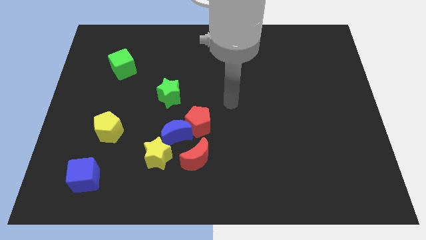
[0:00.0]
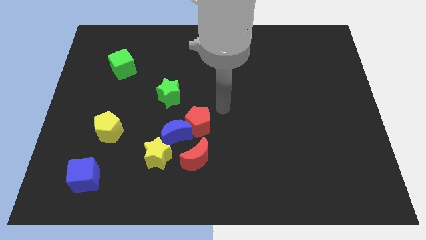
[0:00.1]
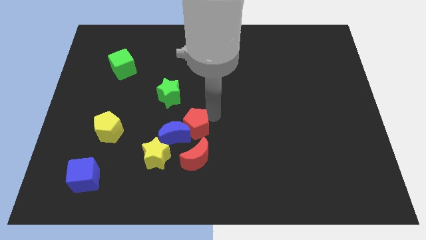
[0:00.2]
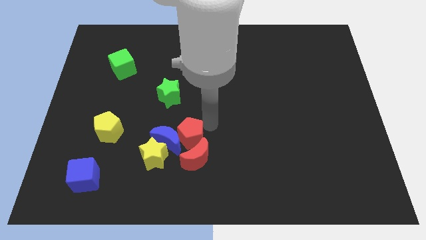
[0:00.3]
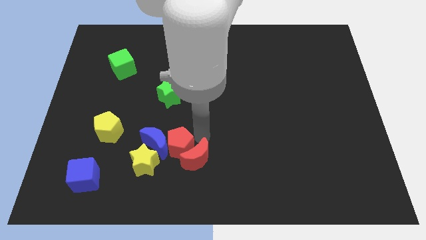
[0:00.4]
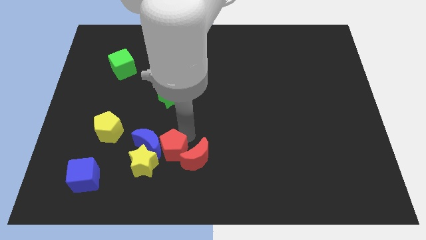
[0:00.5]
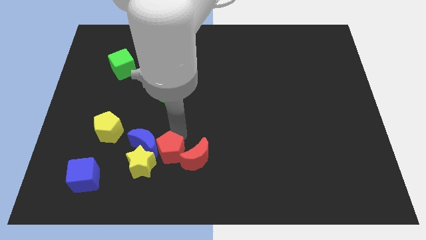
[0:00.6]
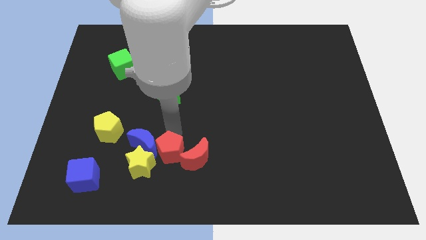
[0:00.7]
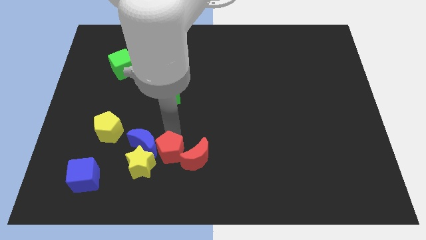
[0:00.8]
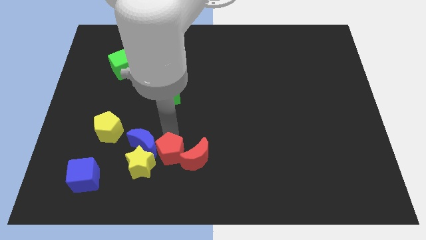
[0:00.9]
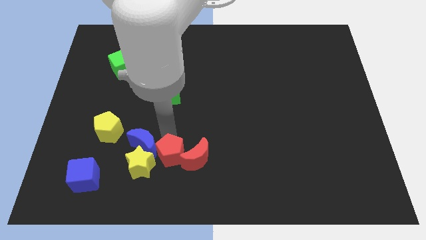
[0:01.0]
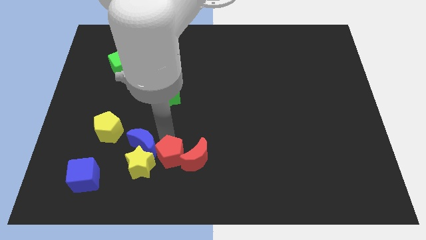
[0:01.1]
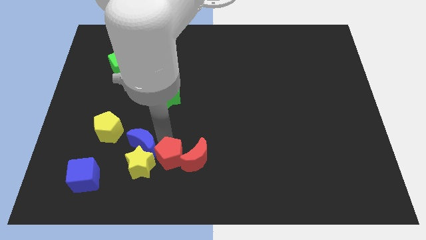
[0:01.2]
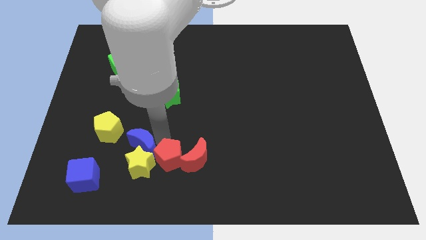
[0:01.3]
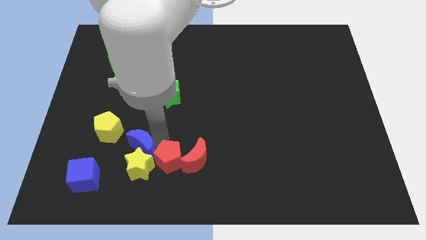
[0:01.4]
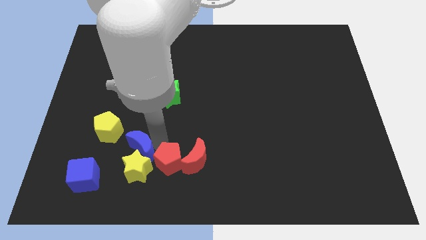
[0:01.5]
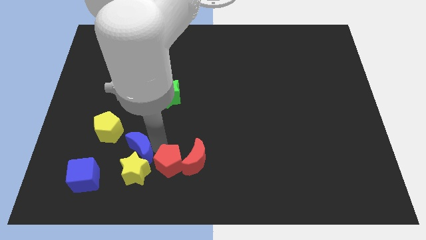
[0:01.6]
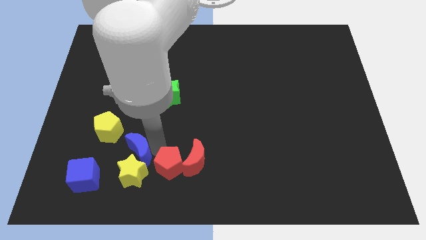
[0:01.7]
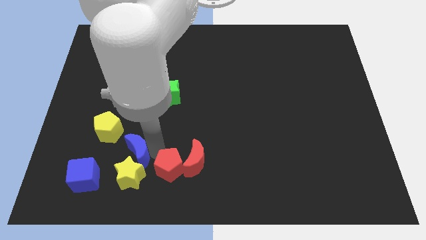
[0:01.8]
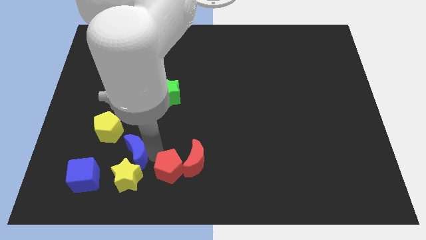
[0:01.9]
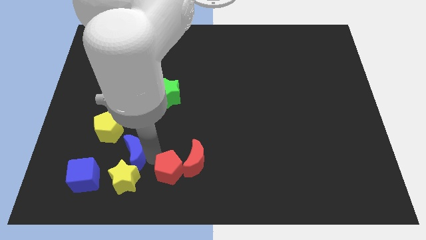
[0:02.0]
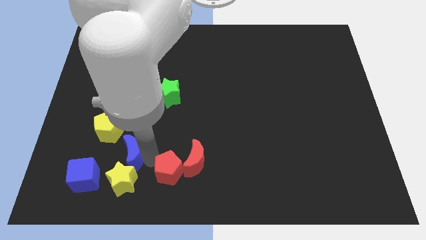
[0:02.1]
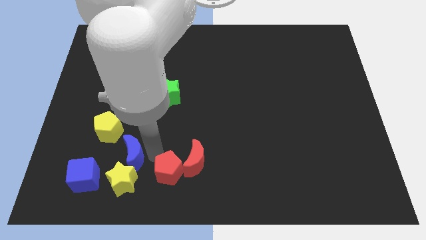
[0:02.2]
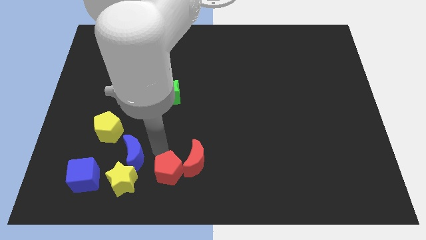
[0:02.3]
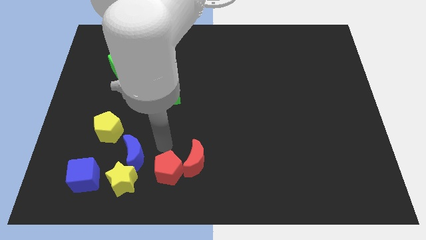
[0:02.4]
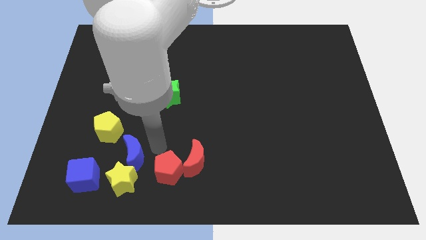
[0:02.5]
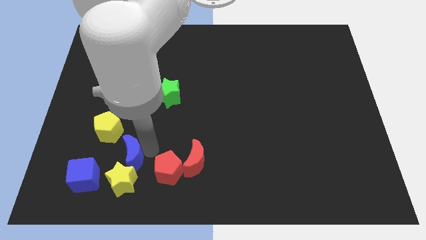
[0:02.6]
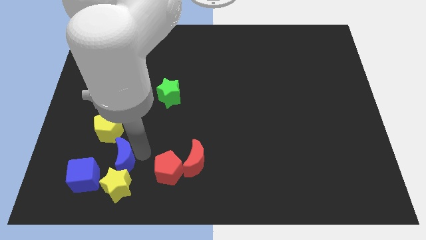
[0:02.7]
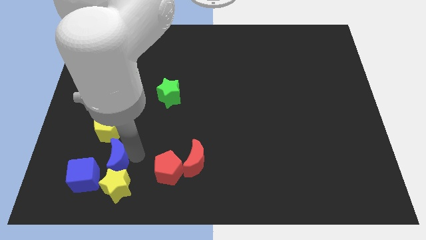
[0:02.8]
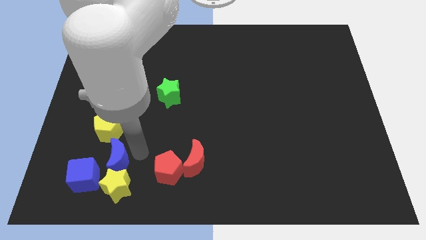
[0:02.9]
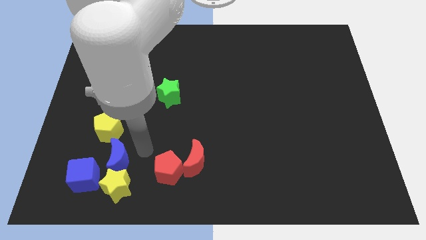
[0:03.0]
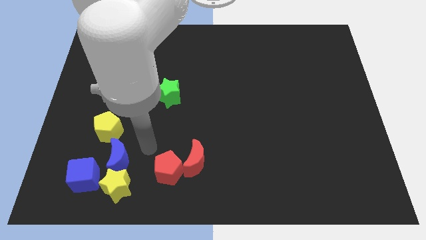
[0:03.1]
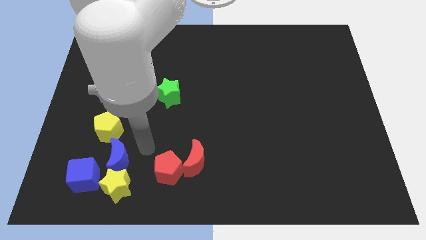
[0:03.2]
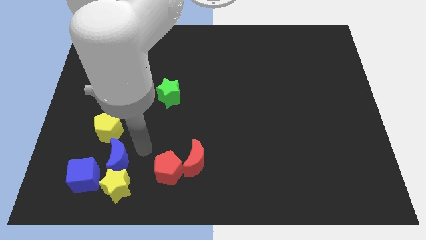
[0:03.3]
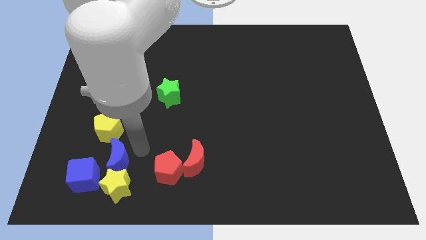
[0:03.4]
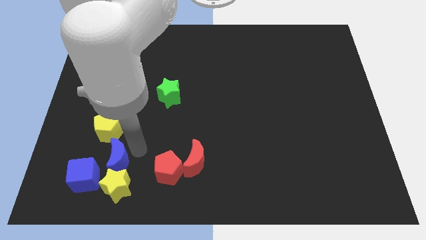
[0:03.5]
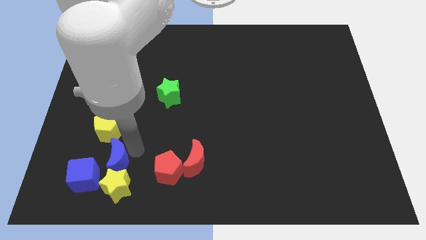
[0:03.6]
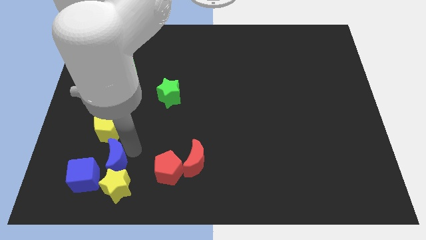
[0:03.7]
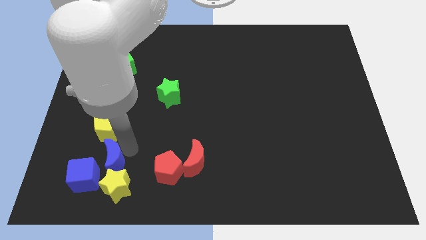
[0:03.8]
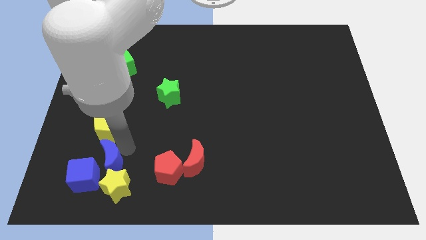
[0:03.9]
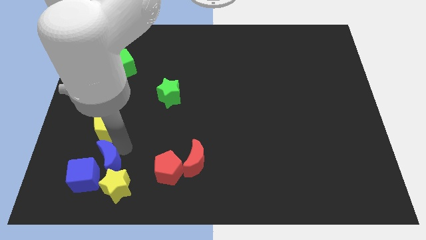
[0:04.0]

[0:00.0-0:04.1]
push the blue moon towards the blue cube

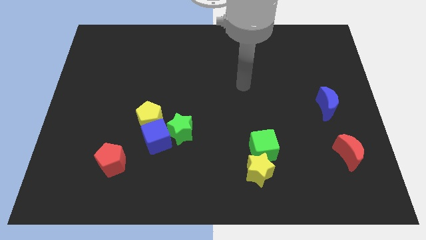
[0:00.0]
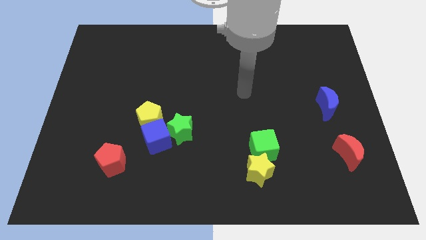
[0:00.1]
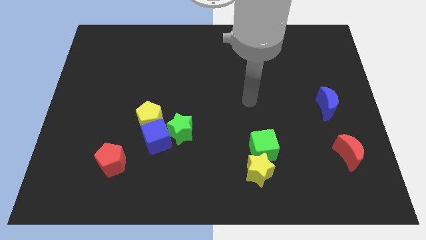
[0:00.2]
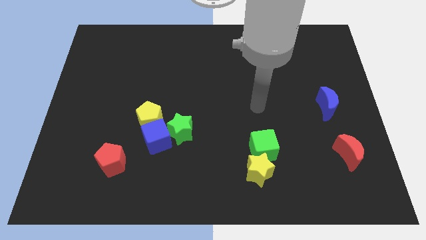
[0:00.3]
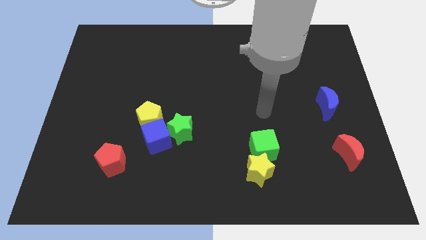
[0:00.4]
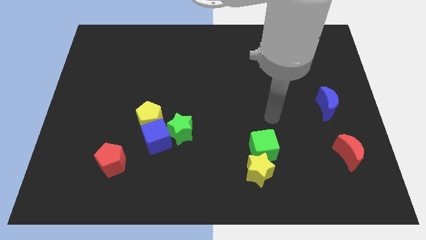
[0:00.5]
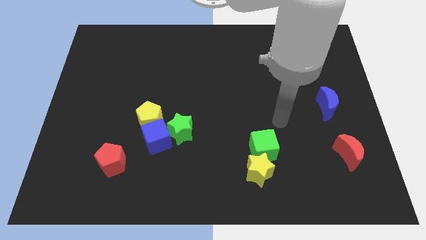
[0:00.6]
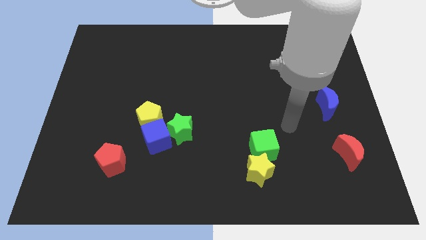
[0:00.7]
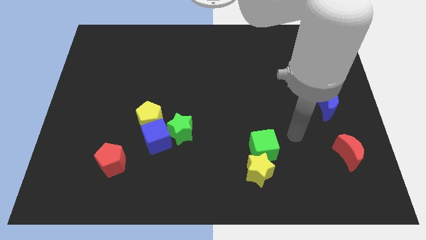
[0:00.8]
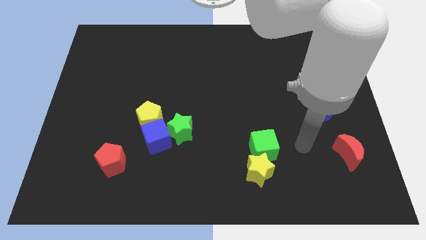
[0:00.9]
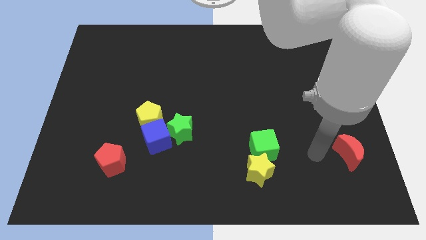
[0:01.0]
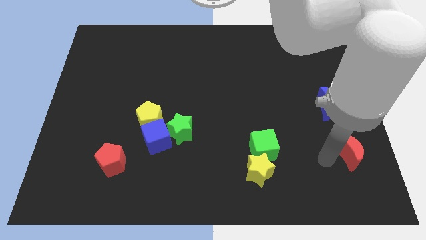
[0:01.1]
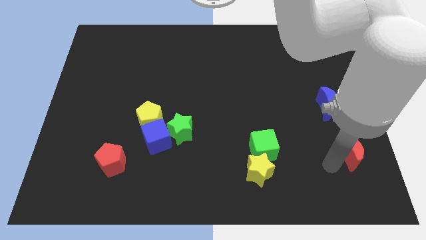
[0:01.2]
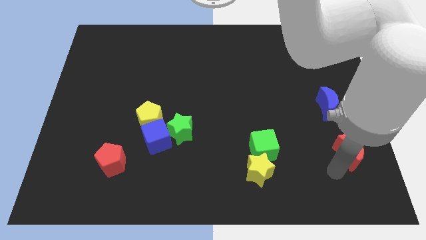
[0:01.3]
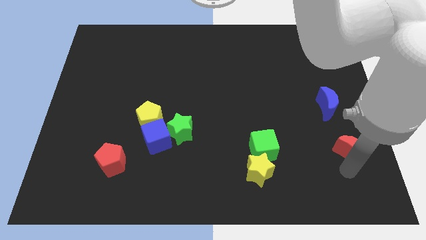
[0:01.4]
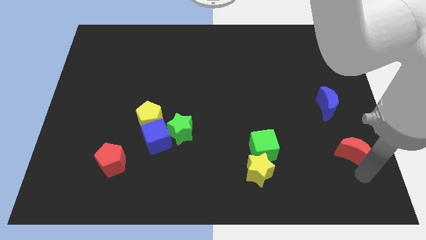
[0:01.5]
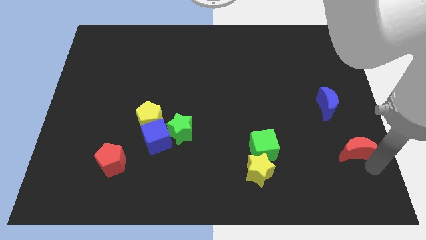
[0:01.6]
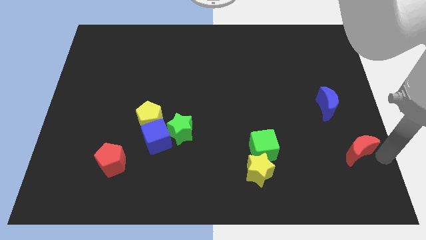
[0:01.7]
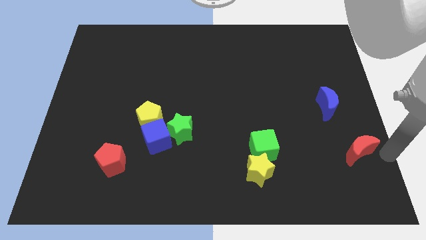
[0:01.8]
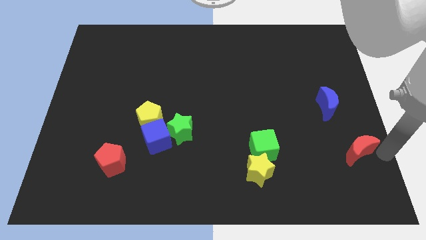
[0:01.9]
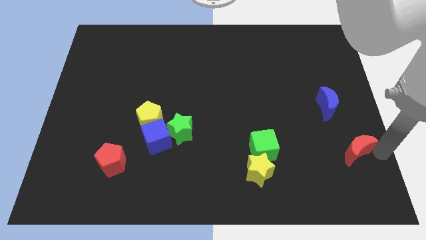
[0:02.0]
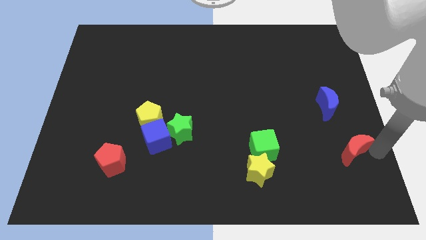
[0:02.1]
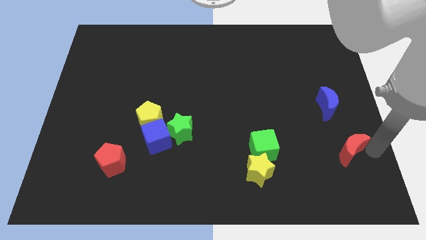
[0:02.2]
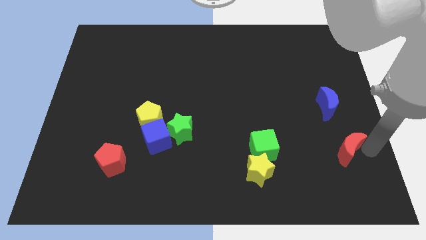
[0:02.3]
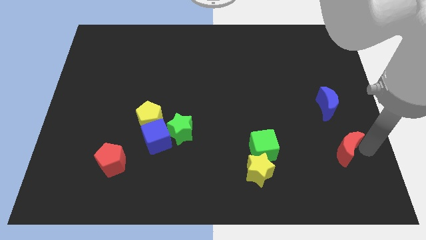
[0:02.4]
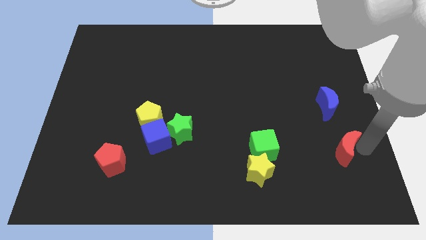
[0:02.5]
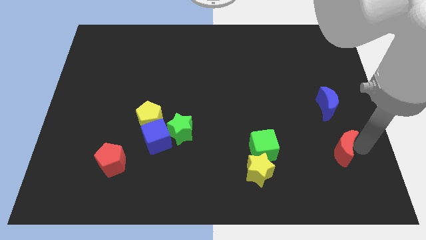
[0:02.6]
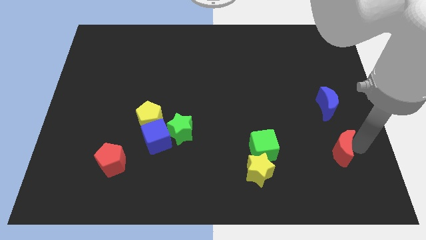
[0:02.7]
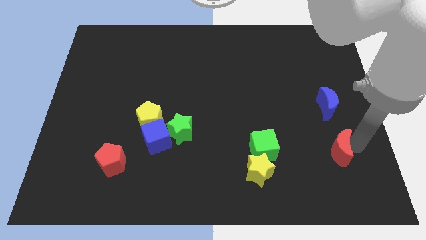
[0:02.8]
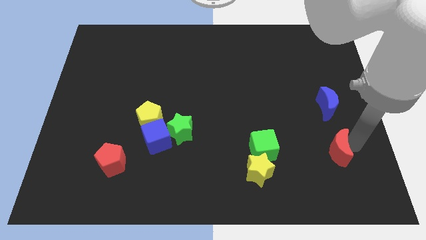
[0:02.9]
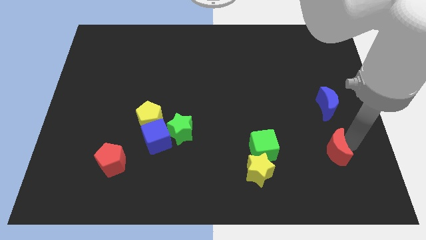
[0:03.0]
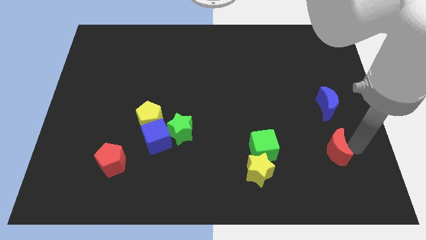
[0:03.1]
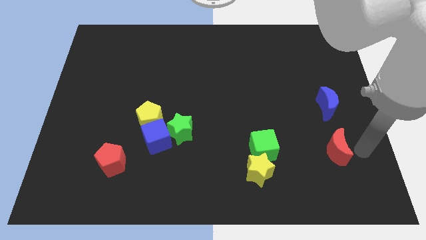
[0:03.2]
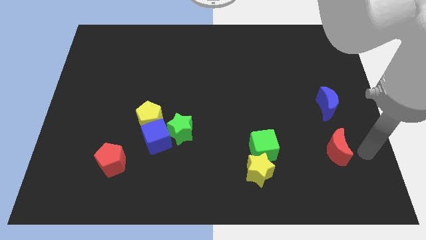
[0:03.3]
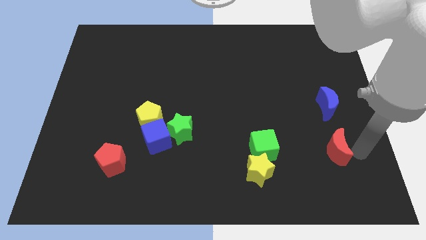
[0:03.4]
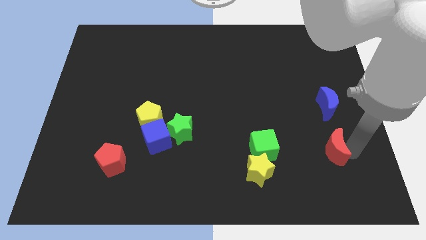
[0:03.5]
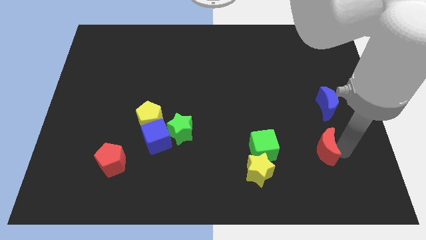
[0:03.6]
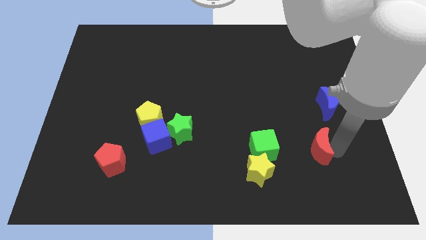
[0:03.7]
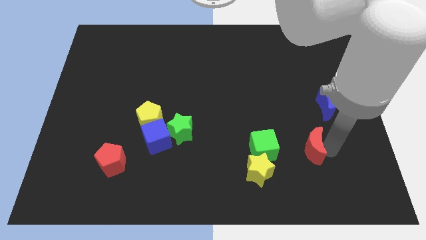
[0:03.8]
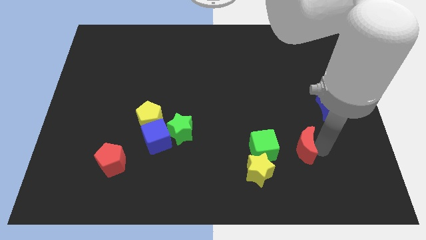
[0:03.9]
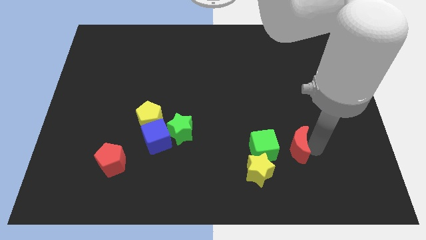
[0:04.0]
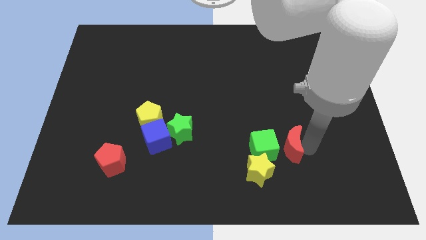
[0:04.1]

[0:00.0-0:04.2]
slide the red moon close to the green cube
